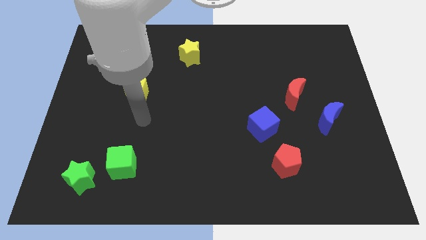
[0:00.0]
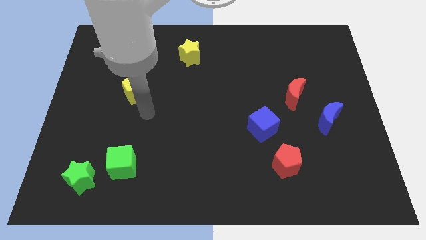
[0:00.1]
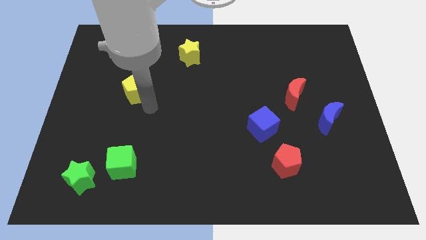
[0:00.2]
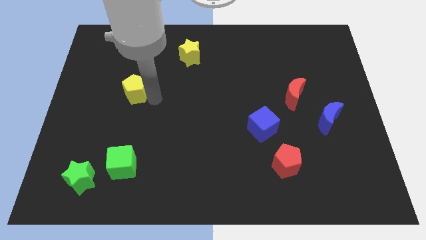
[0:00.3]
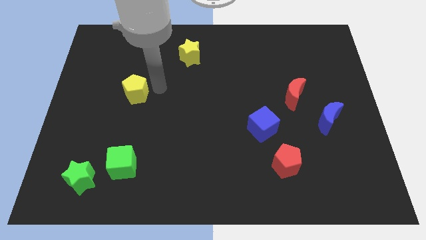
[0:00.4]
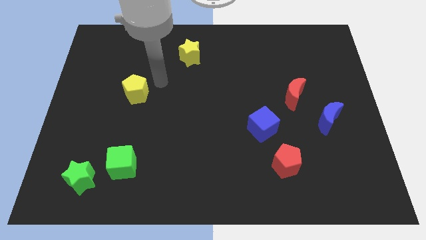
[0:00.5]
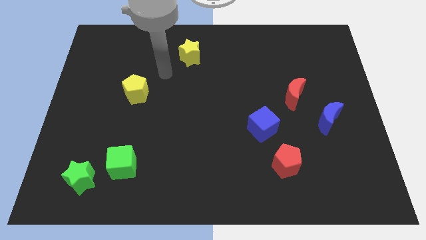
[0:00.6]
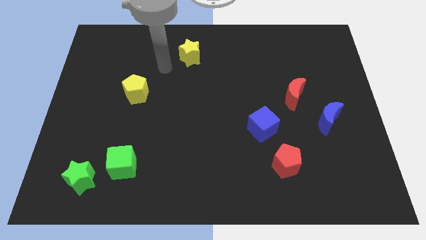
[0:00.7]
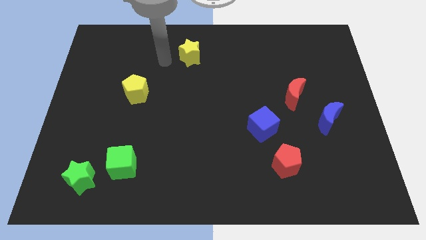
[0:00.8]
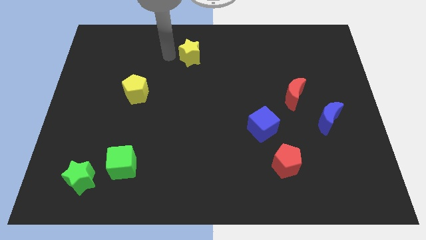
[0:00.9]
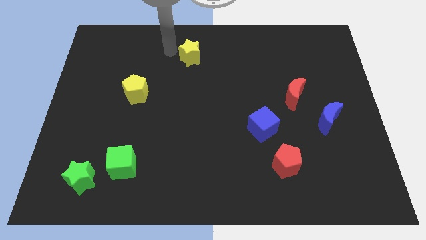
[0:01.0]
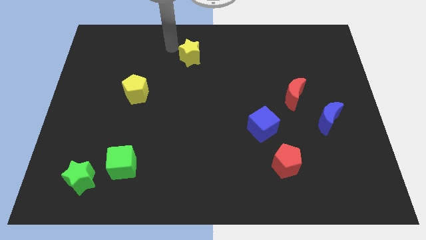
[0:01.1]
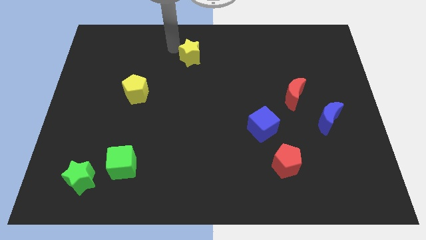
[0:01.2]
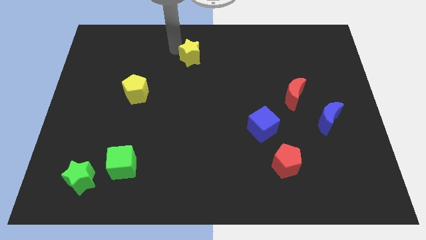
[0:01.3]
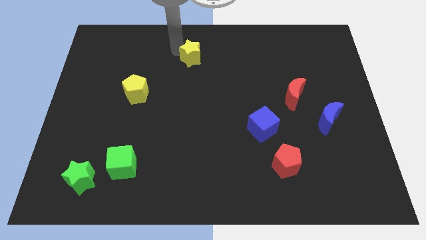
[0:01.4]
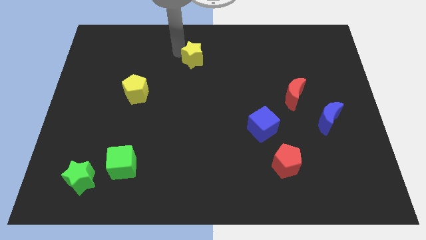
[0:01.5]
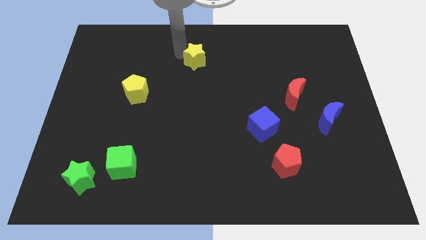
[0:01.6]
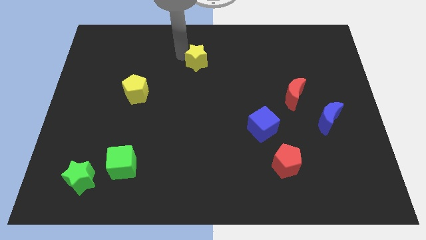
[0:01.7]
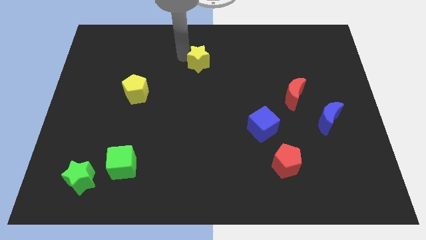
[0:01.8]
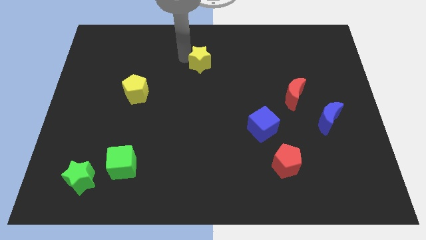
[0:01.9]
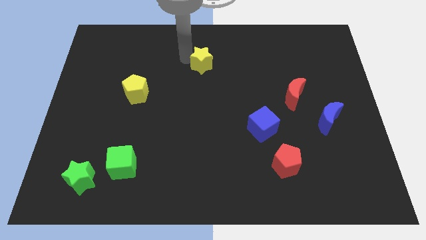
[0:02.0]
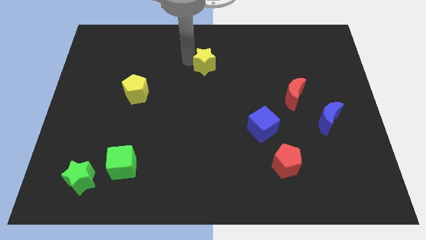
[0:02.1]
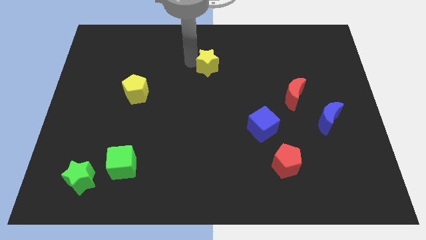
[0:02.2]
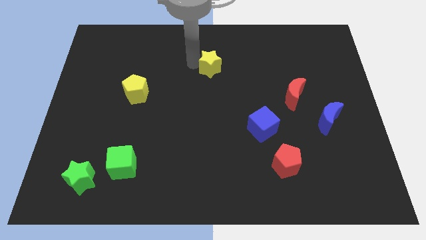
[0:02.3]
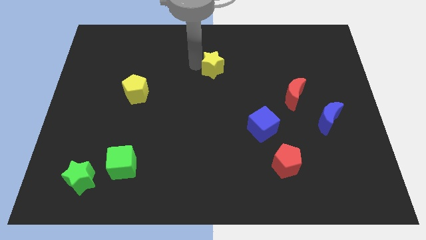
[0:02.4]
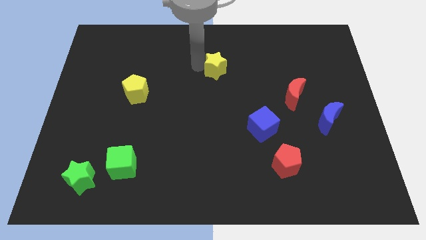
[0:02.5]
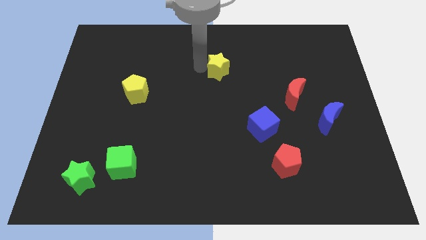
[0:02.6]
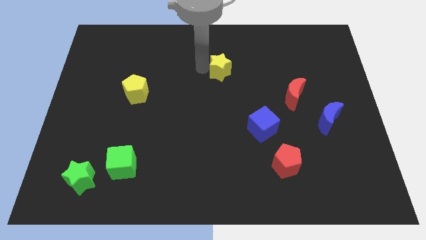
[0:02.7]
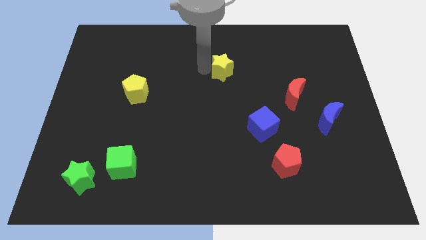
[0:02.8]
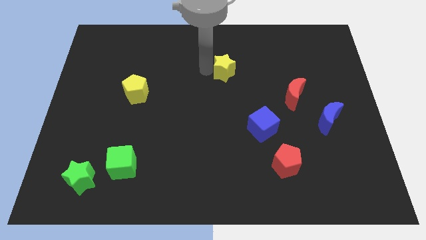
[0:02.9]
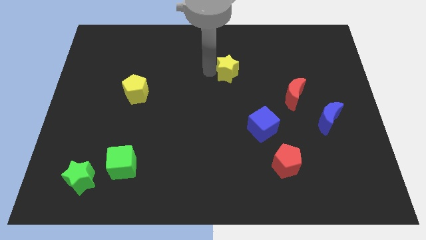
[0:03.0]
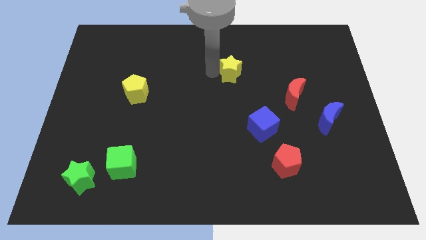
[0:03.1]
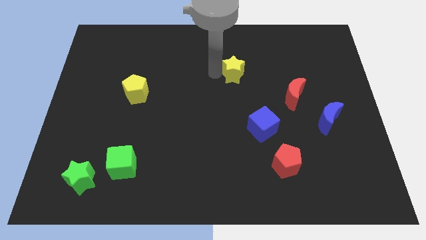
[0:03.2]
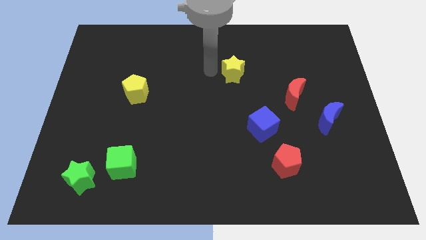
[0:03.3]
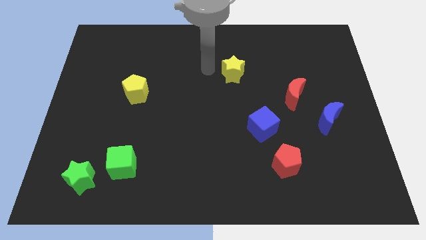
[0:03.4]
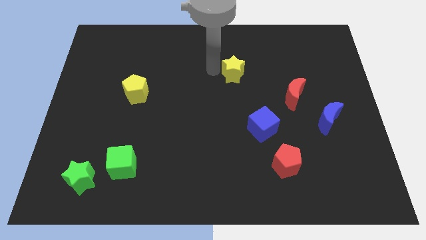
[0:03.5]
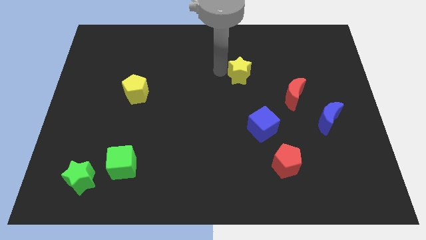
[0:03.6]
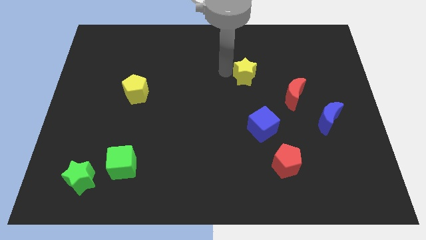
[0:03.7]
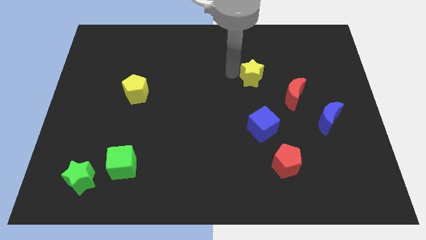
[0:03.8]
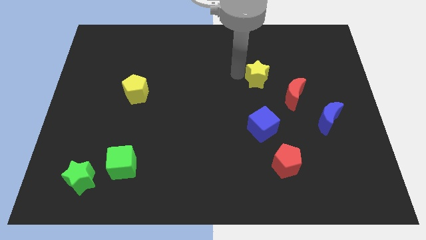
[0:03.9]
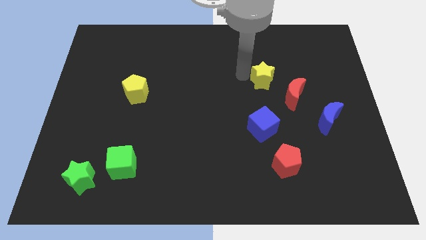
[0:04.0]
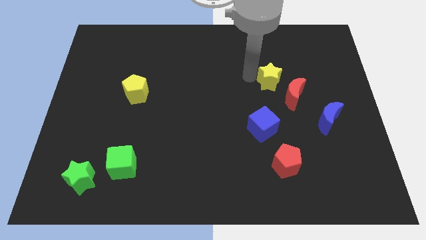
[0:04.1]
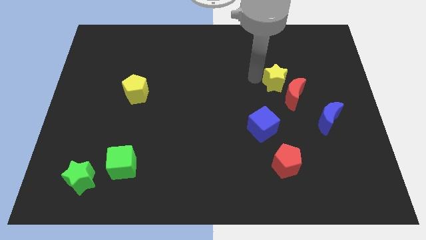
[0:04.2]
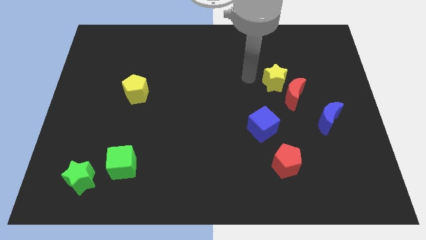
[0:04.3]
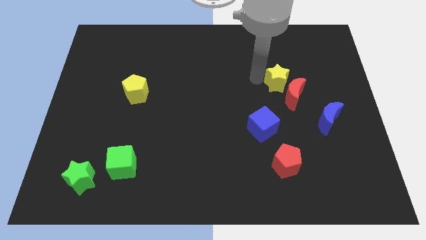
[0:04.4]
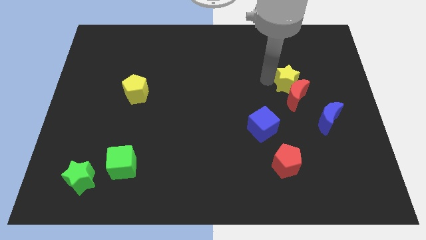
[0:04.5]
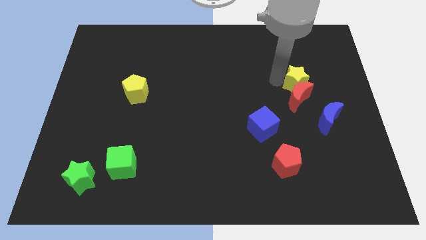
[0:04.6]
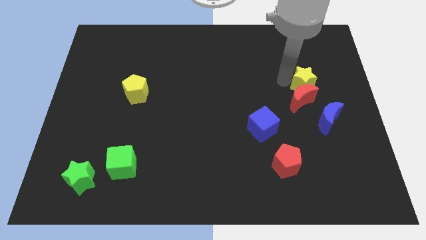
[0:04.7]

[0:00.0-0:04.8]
slide the yellow star above the blue moon

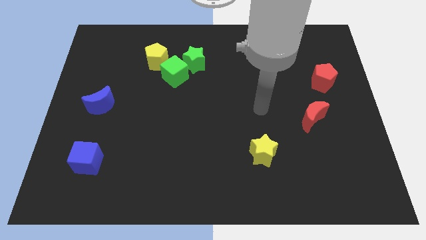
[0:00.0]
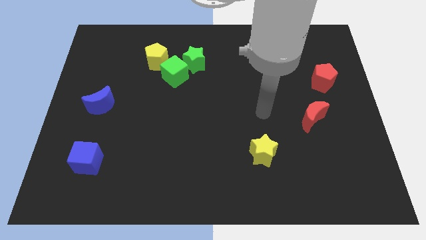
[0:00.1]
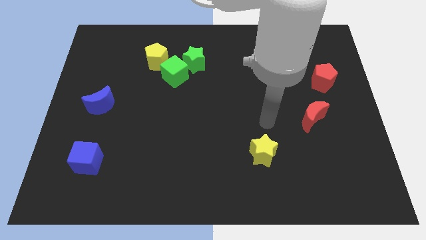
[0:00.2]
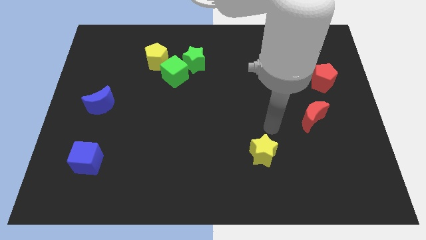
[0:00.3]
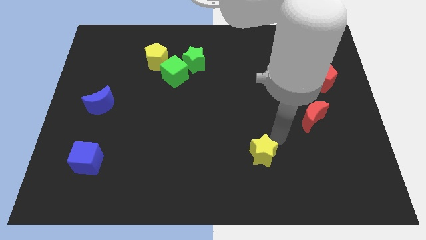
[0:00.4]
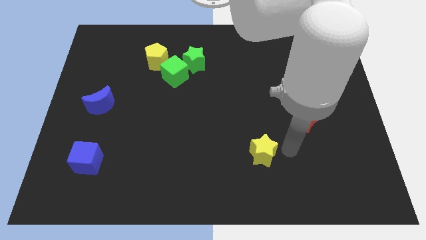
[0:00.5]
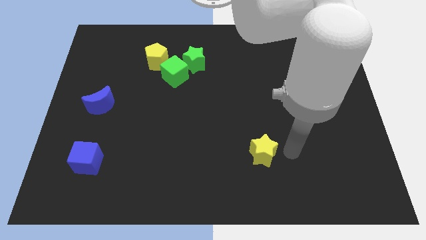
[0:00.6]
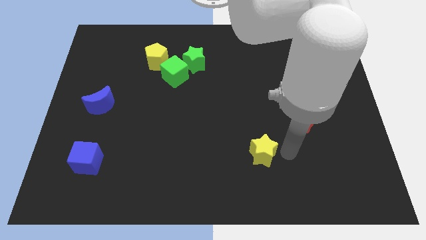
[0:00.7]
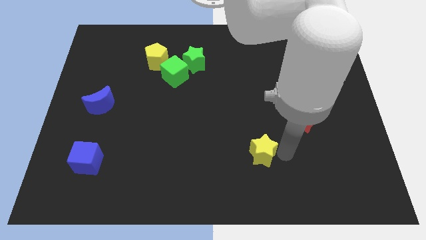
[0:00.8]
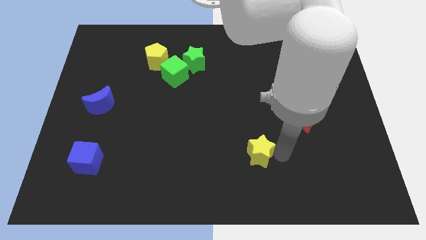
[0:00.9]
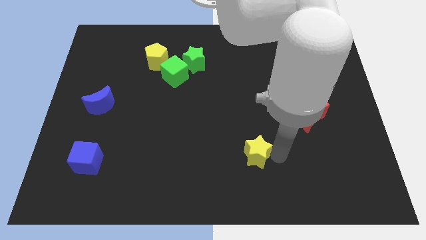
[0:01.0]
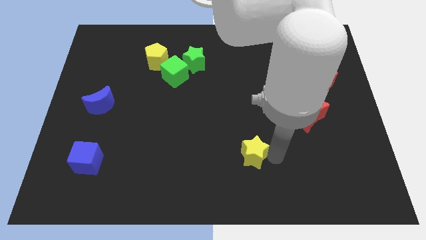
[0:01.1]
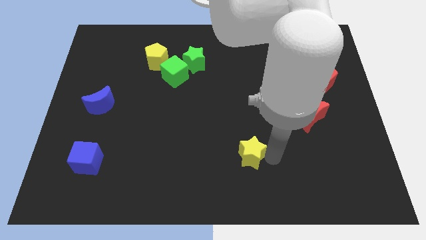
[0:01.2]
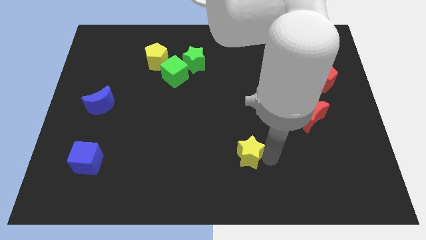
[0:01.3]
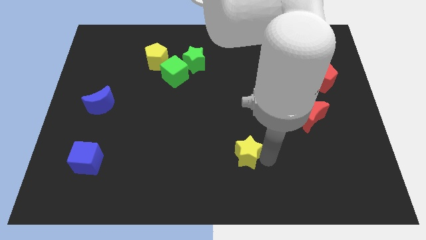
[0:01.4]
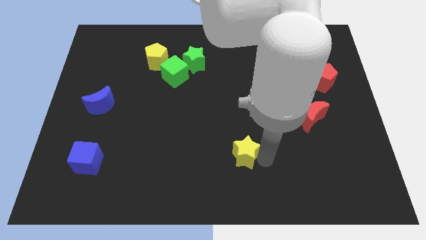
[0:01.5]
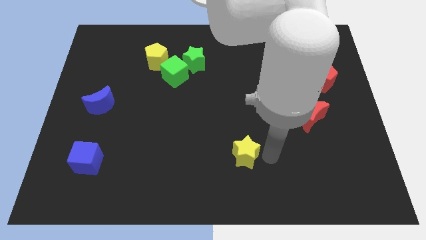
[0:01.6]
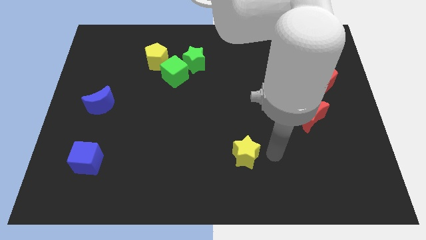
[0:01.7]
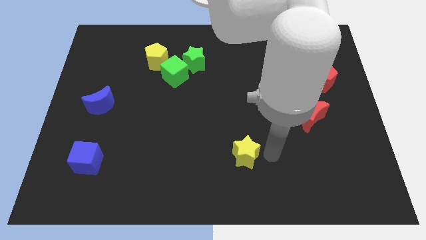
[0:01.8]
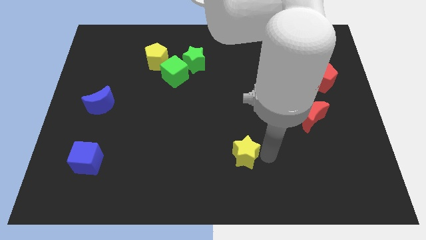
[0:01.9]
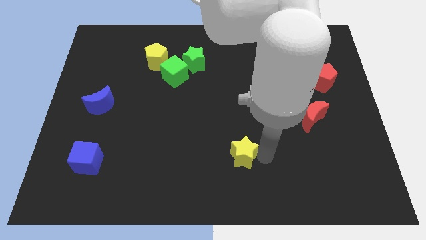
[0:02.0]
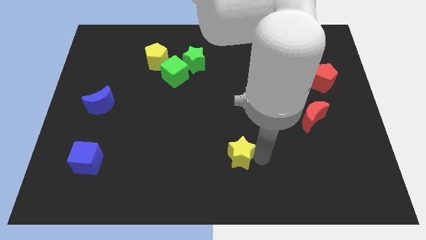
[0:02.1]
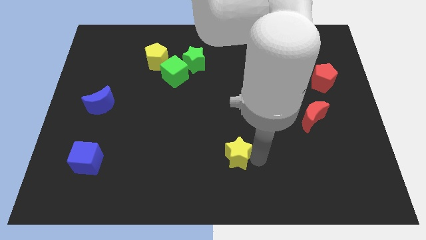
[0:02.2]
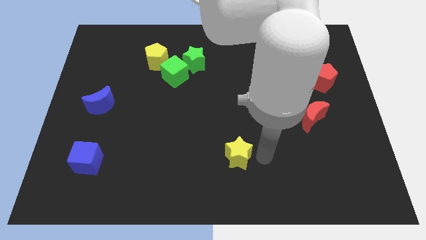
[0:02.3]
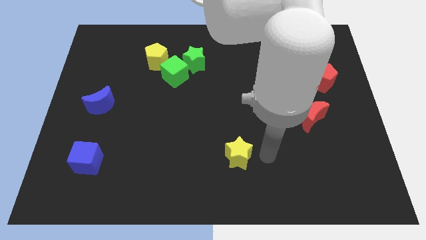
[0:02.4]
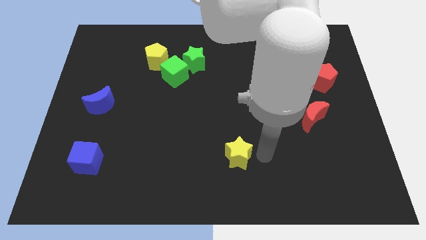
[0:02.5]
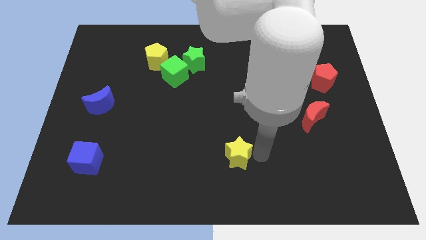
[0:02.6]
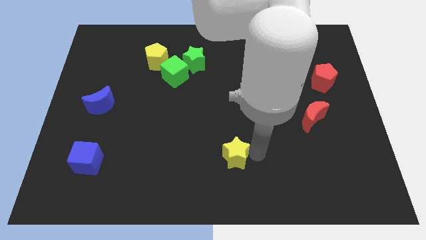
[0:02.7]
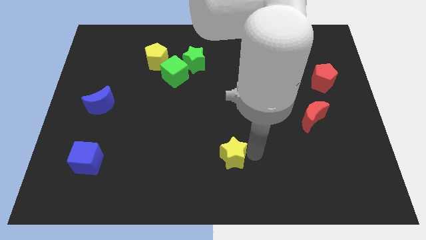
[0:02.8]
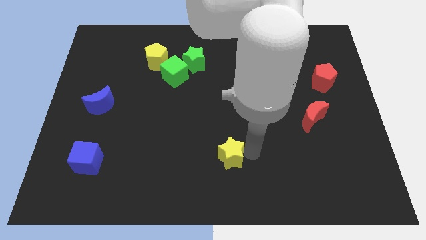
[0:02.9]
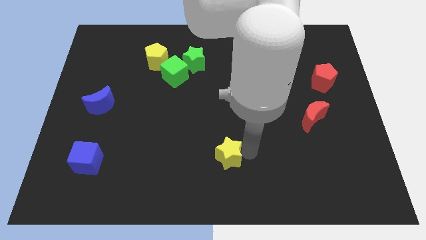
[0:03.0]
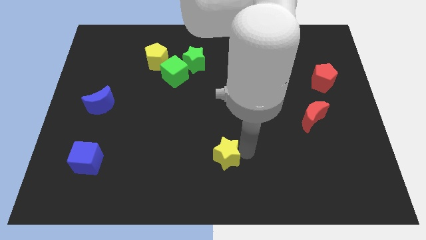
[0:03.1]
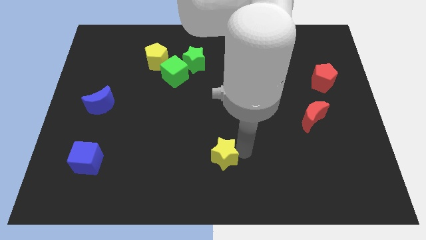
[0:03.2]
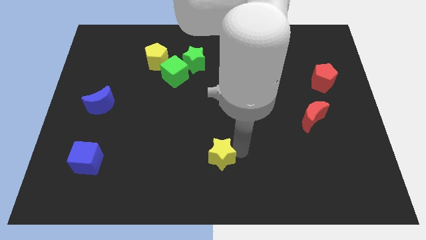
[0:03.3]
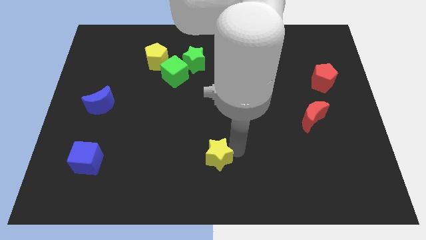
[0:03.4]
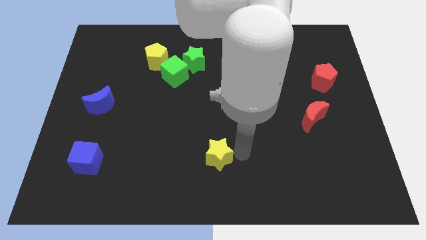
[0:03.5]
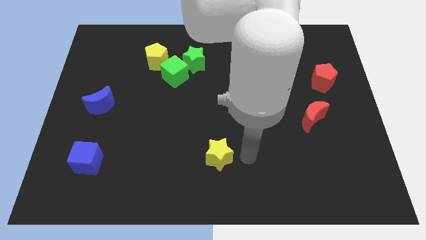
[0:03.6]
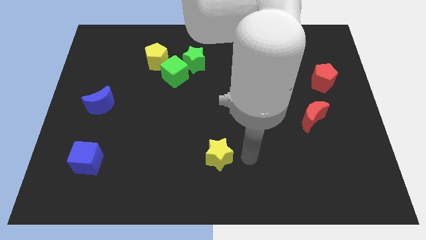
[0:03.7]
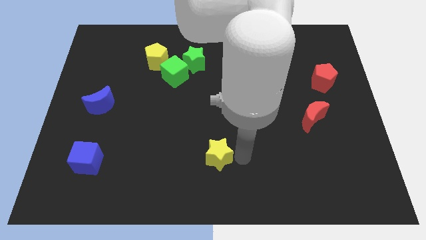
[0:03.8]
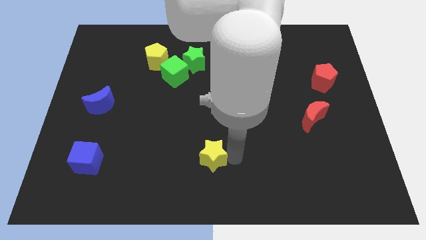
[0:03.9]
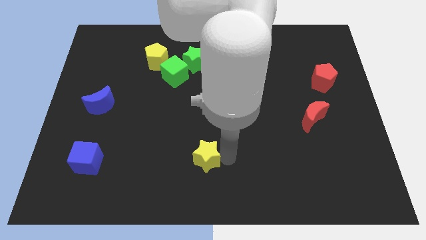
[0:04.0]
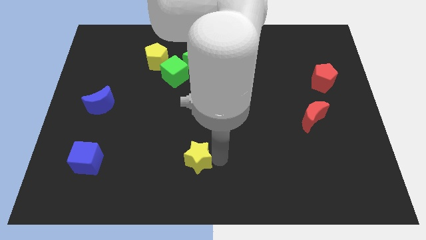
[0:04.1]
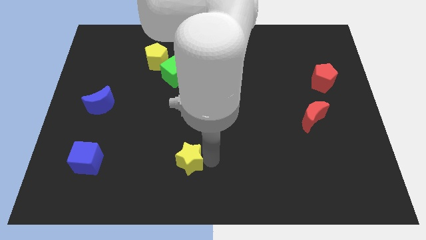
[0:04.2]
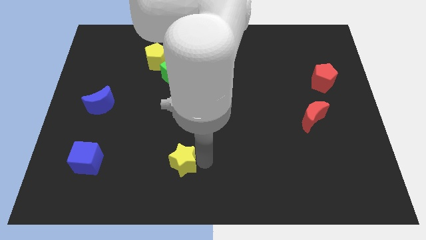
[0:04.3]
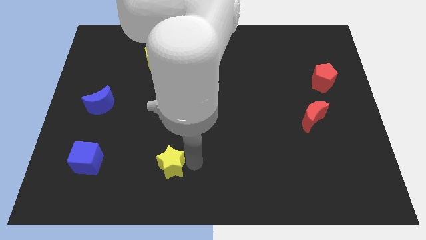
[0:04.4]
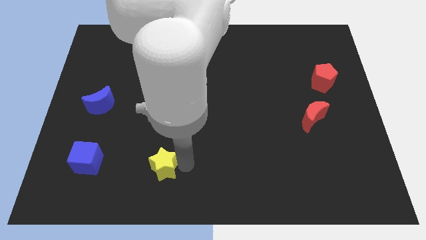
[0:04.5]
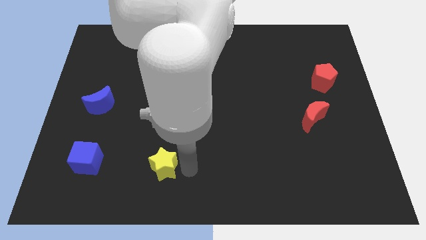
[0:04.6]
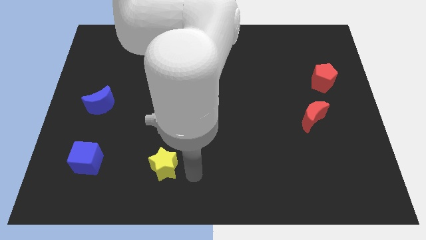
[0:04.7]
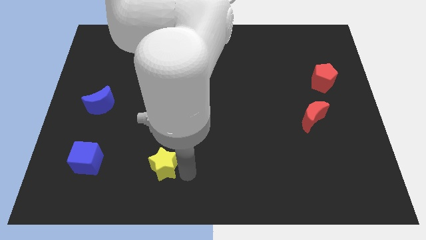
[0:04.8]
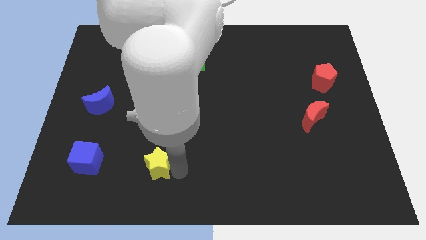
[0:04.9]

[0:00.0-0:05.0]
slide the yellow star to the right of the blue cube
